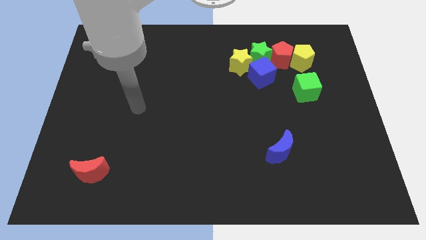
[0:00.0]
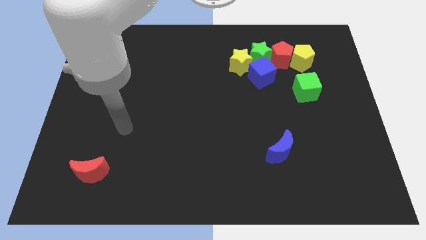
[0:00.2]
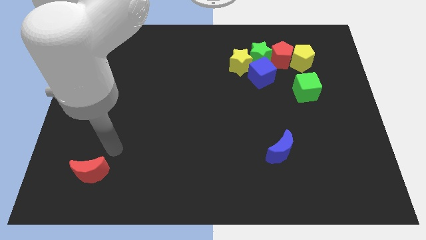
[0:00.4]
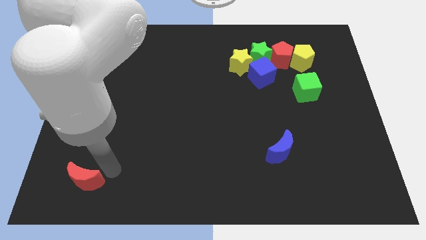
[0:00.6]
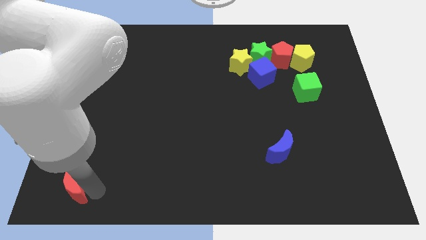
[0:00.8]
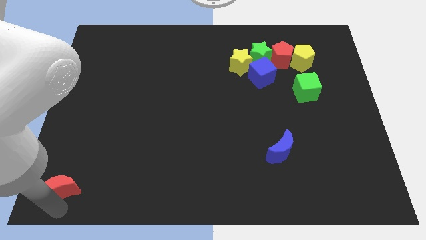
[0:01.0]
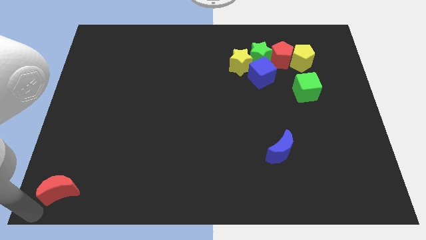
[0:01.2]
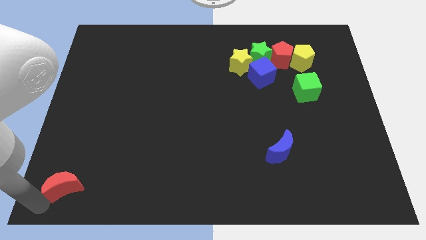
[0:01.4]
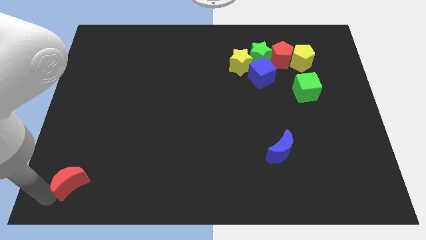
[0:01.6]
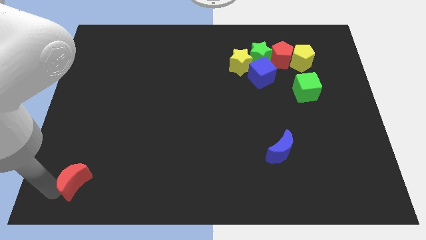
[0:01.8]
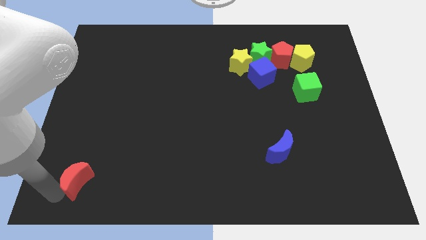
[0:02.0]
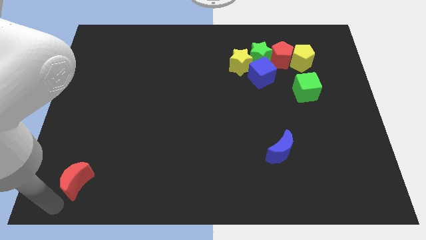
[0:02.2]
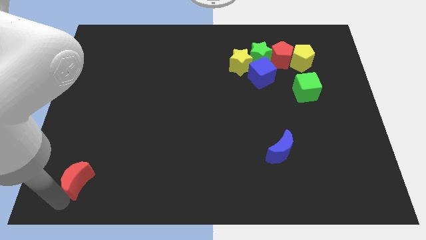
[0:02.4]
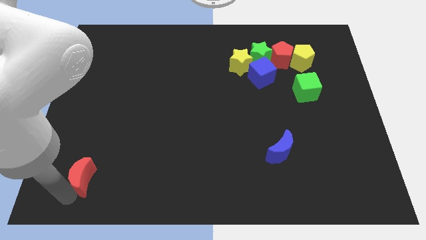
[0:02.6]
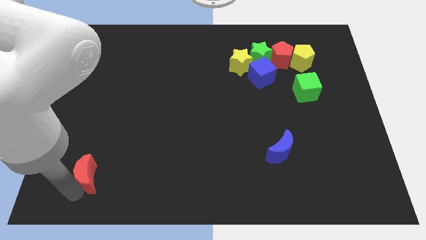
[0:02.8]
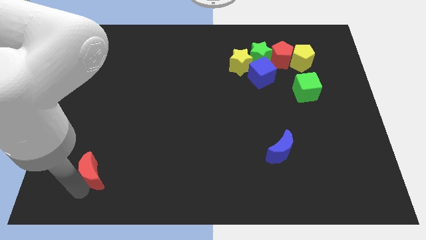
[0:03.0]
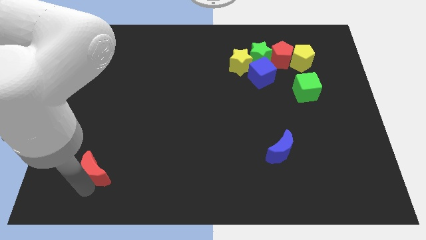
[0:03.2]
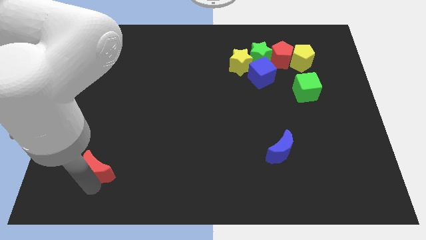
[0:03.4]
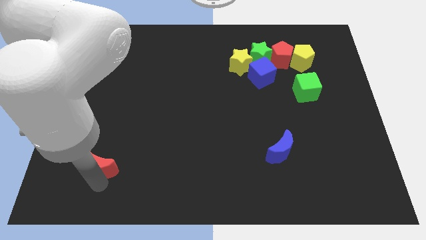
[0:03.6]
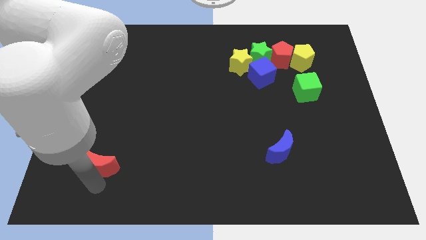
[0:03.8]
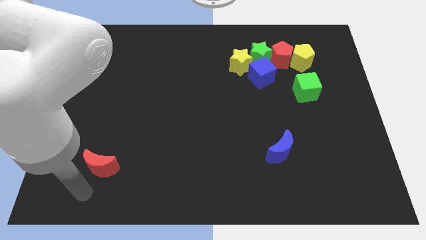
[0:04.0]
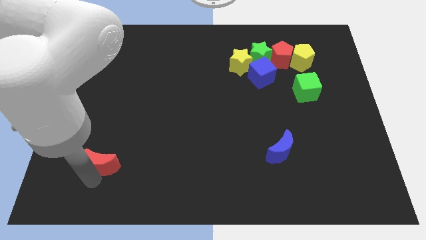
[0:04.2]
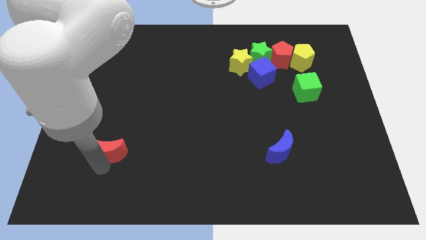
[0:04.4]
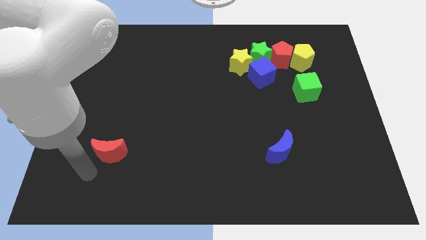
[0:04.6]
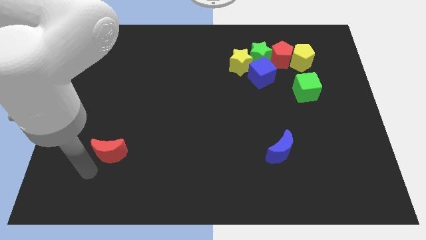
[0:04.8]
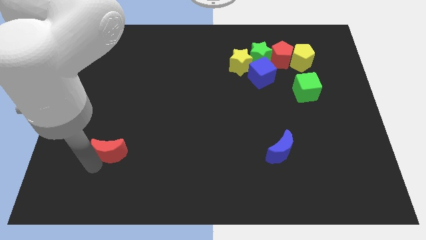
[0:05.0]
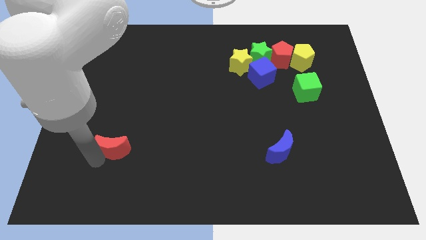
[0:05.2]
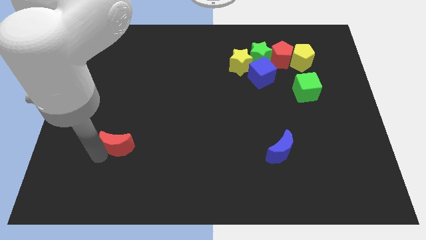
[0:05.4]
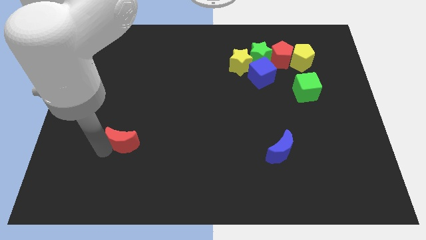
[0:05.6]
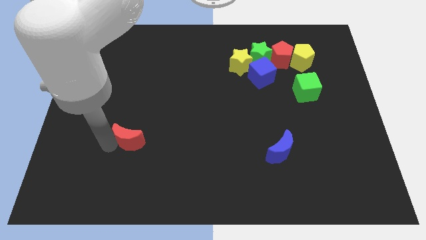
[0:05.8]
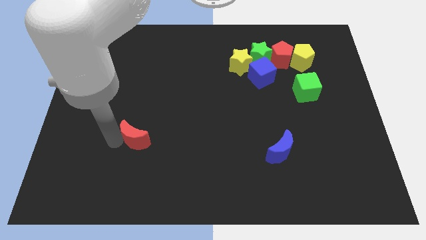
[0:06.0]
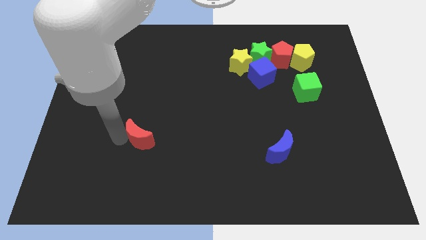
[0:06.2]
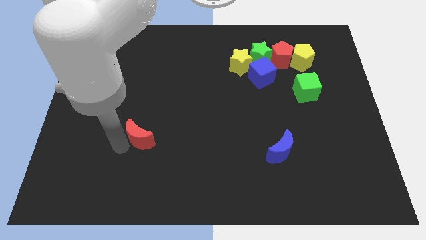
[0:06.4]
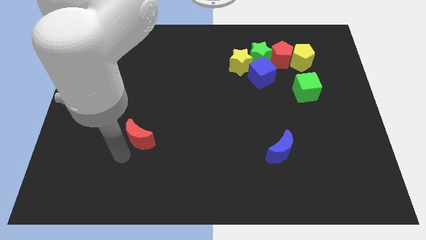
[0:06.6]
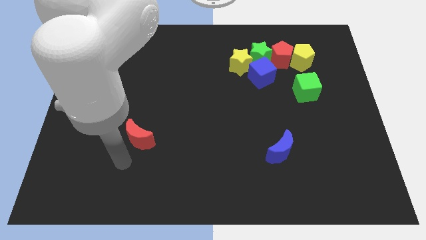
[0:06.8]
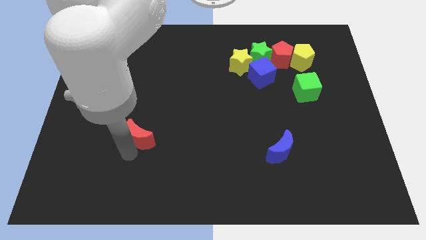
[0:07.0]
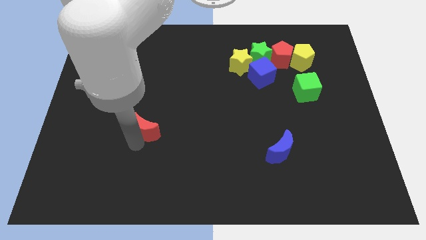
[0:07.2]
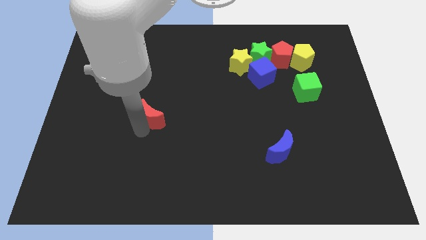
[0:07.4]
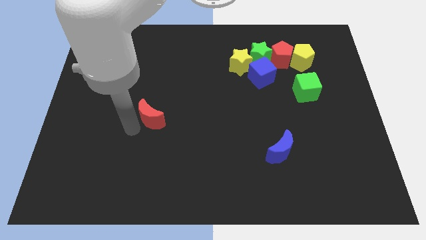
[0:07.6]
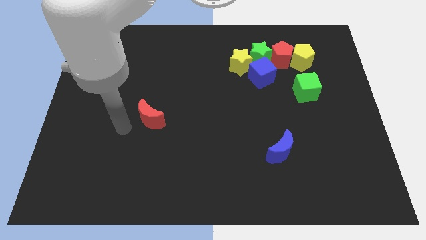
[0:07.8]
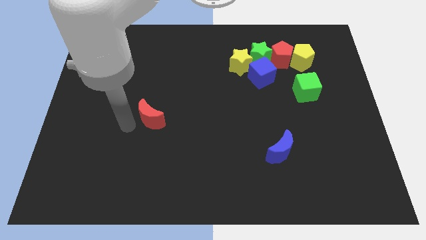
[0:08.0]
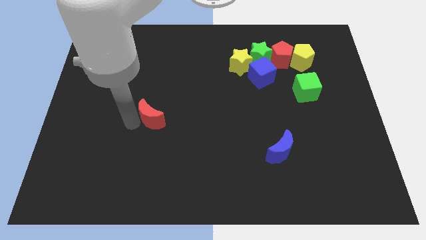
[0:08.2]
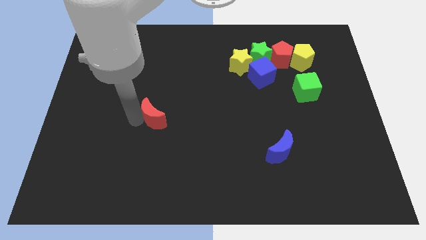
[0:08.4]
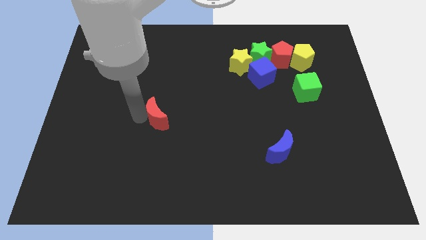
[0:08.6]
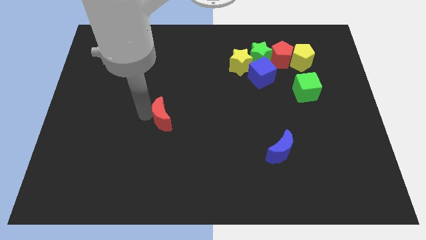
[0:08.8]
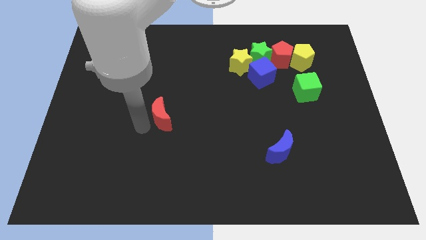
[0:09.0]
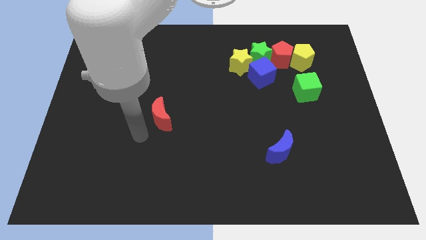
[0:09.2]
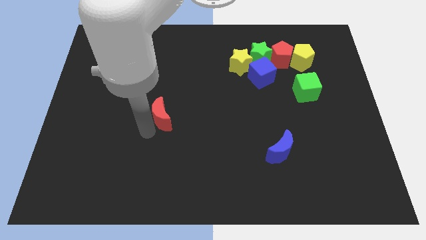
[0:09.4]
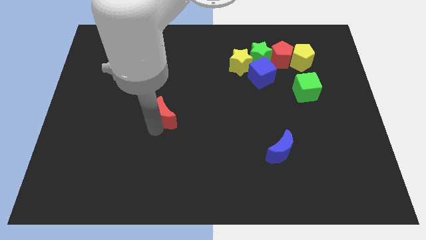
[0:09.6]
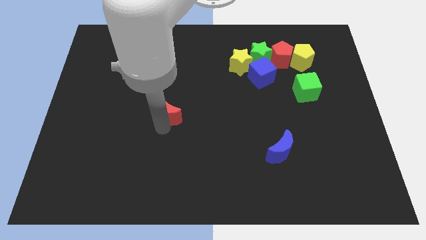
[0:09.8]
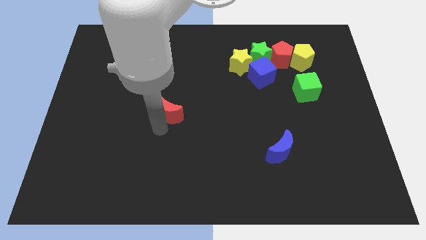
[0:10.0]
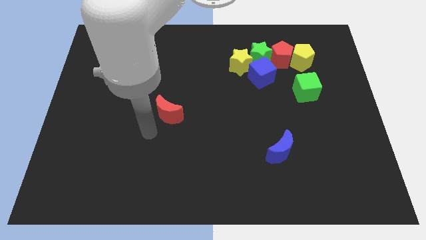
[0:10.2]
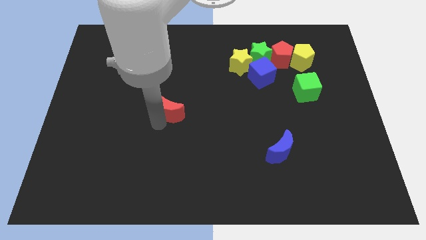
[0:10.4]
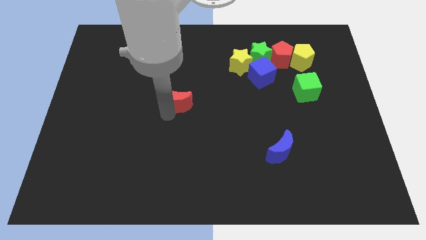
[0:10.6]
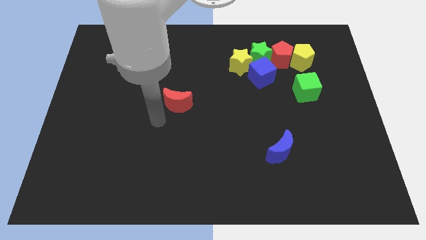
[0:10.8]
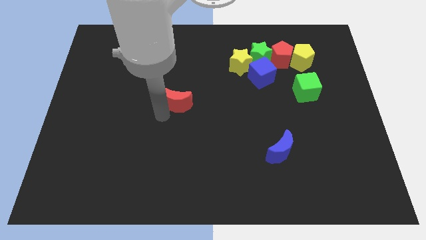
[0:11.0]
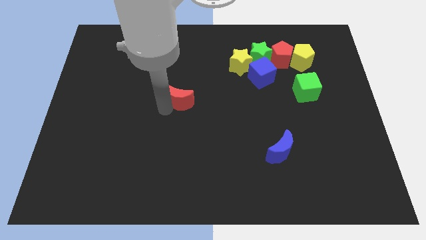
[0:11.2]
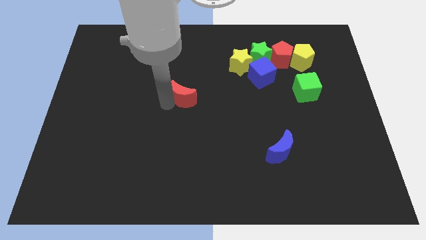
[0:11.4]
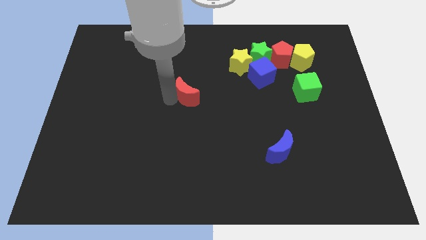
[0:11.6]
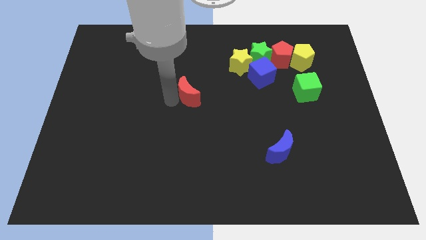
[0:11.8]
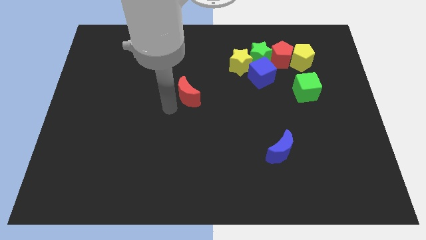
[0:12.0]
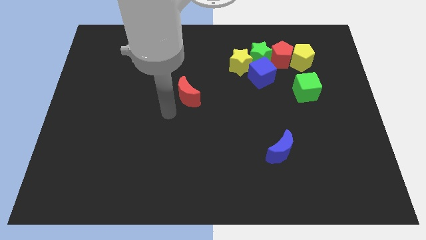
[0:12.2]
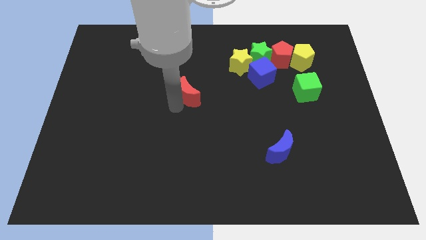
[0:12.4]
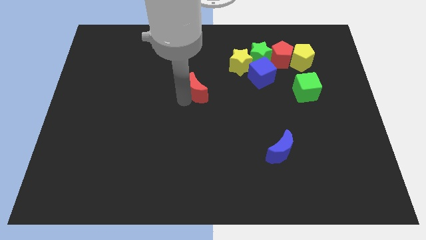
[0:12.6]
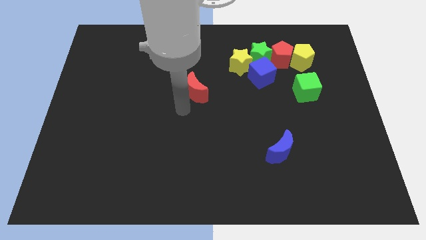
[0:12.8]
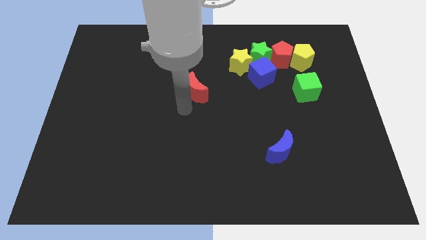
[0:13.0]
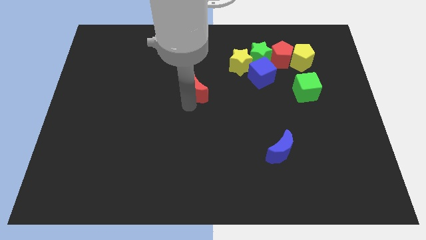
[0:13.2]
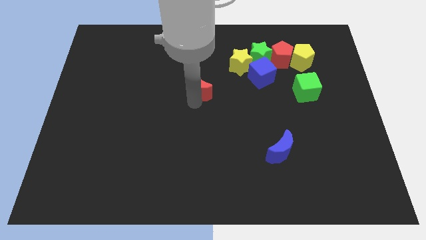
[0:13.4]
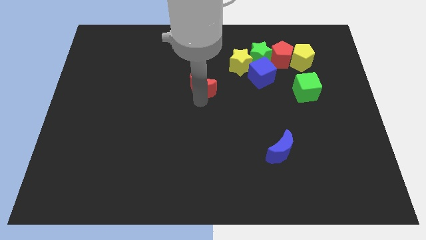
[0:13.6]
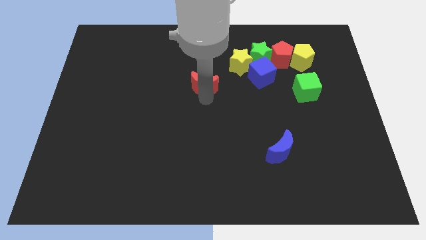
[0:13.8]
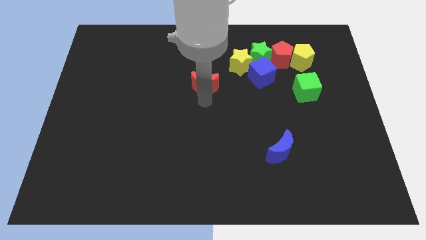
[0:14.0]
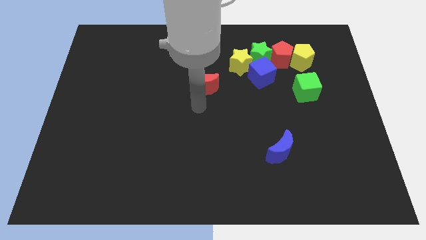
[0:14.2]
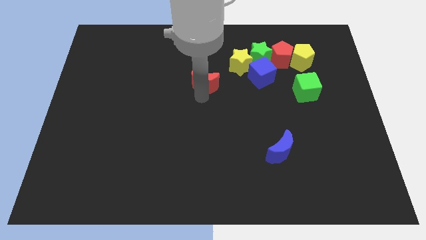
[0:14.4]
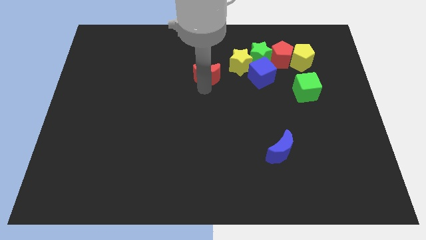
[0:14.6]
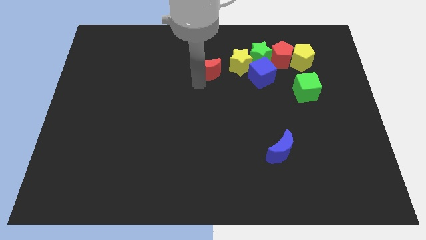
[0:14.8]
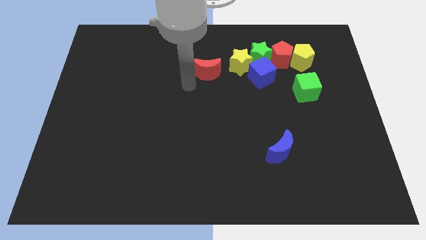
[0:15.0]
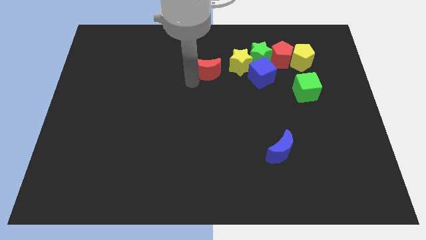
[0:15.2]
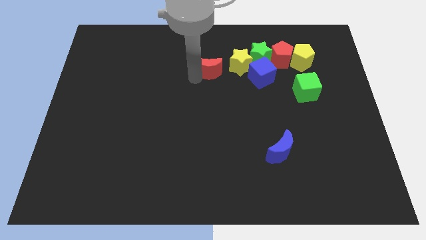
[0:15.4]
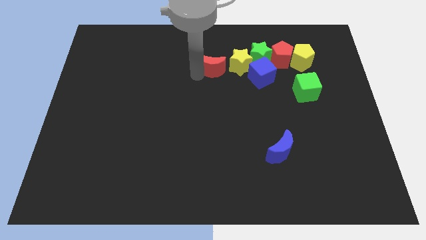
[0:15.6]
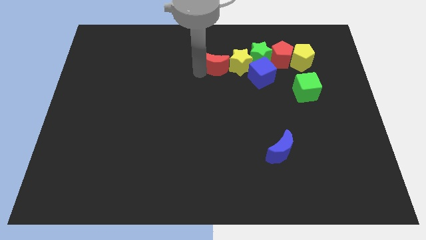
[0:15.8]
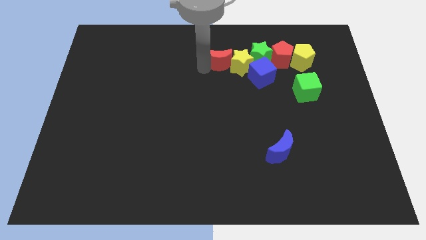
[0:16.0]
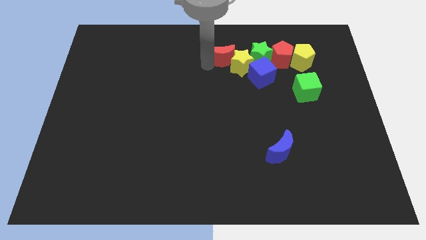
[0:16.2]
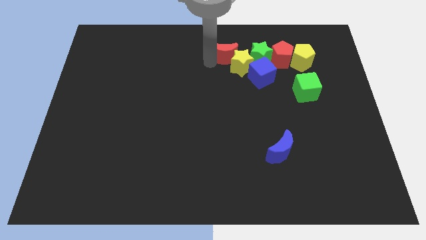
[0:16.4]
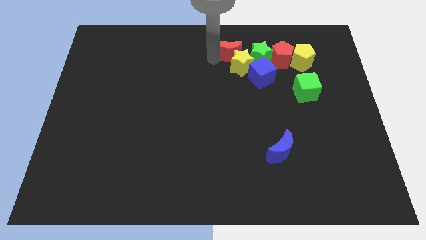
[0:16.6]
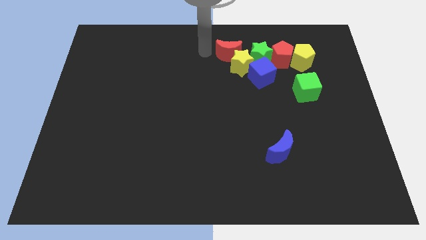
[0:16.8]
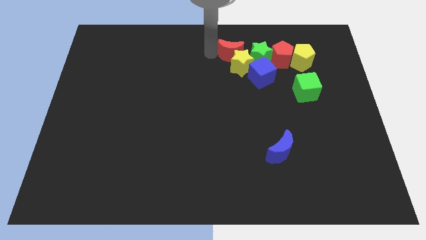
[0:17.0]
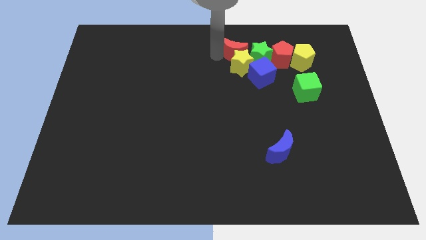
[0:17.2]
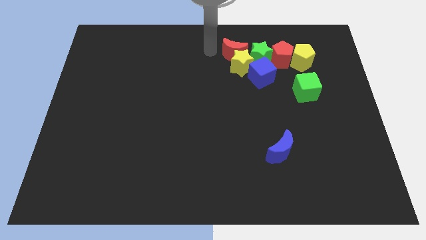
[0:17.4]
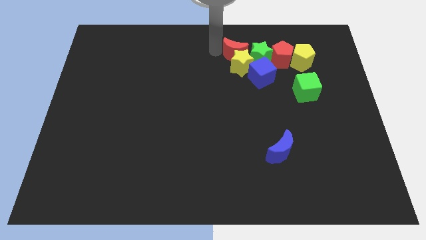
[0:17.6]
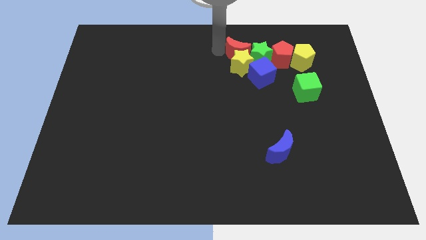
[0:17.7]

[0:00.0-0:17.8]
push the red moon next to the green star
